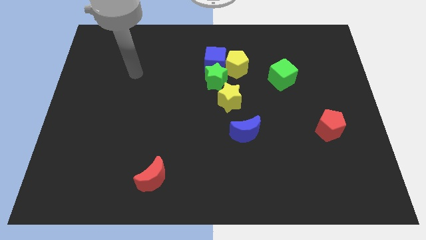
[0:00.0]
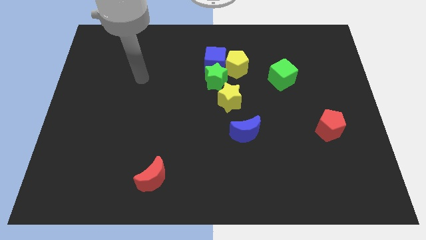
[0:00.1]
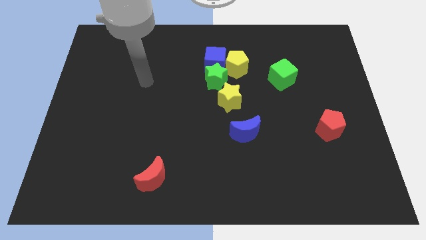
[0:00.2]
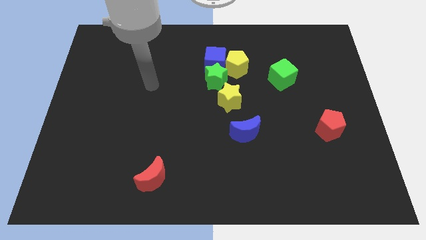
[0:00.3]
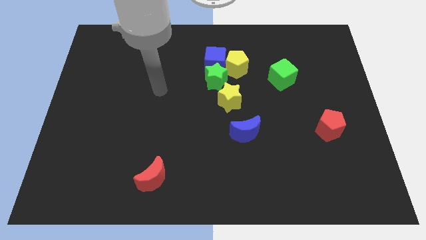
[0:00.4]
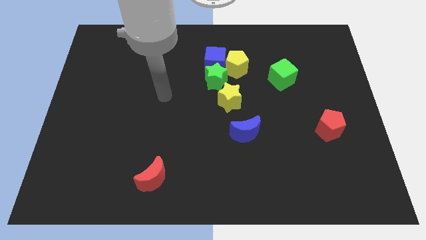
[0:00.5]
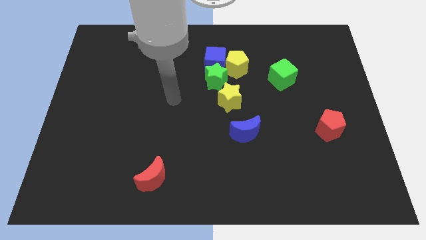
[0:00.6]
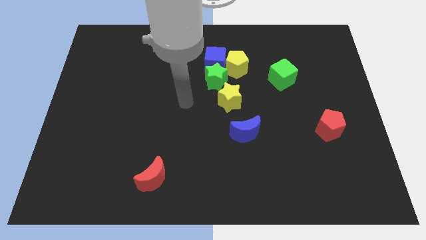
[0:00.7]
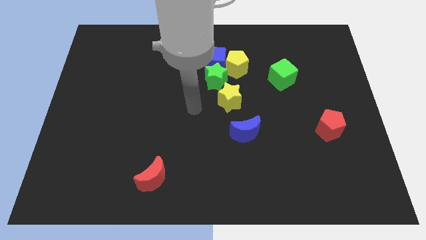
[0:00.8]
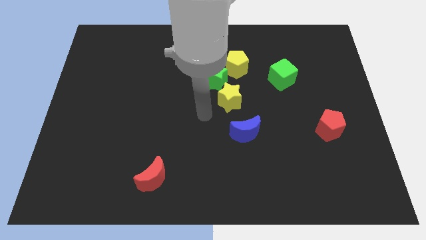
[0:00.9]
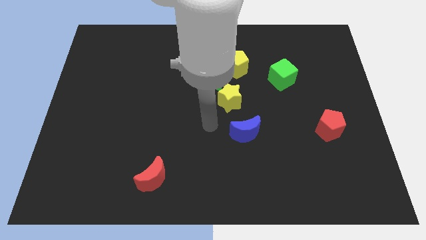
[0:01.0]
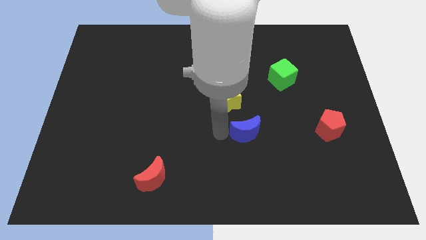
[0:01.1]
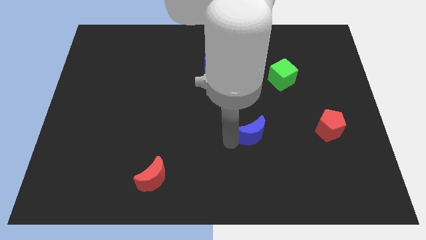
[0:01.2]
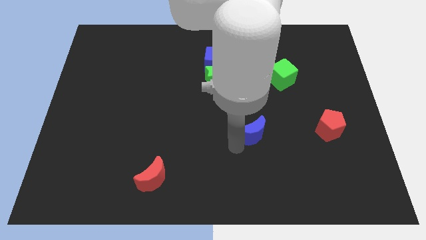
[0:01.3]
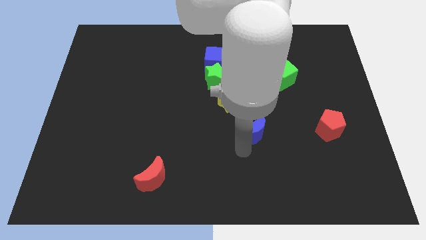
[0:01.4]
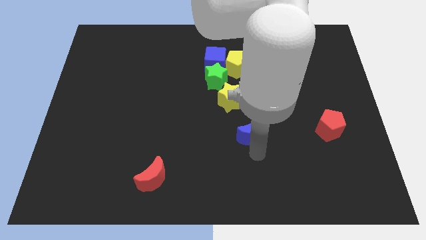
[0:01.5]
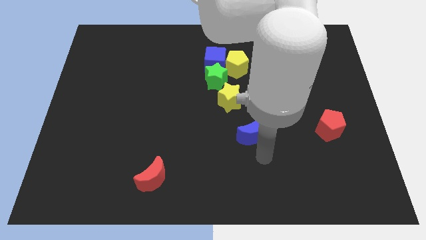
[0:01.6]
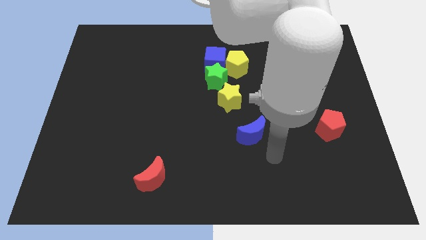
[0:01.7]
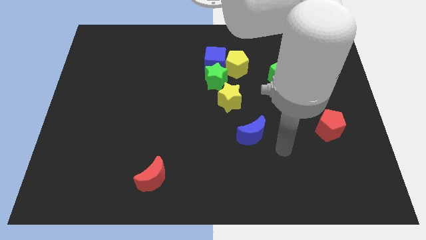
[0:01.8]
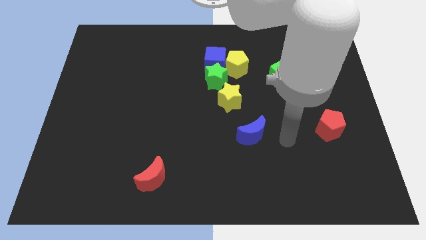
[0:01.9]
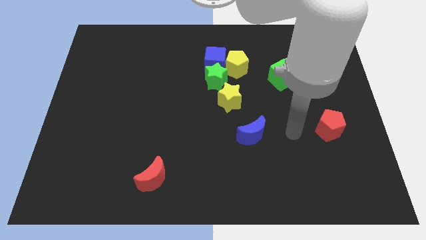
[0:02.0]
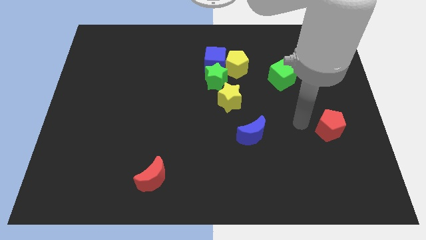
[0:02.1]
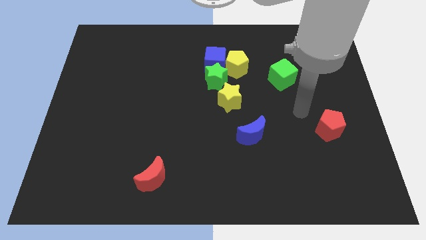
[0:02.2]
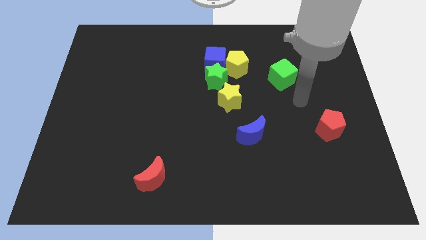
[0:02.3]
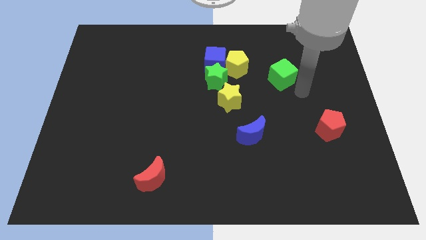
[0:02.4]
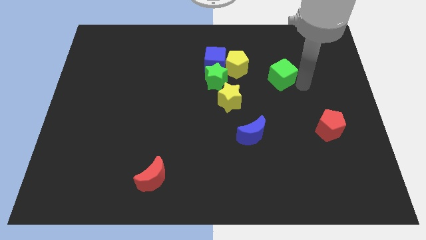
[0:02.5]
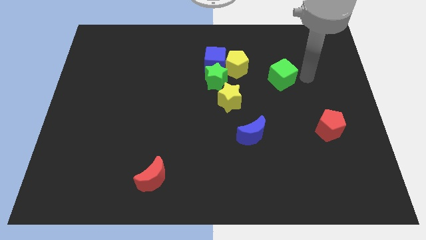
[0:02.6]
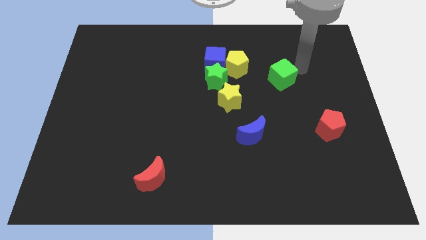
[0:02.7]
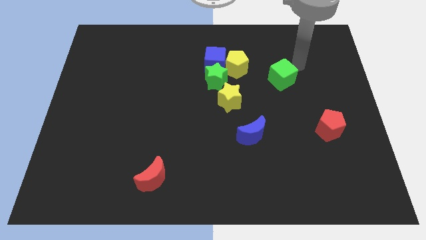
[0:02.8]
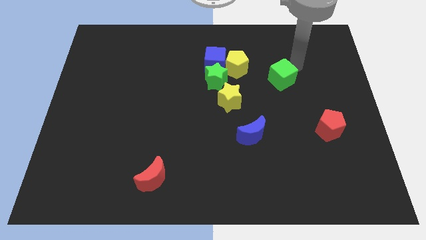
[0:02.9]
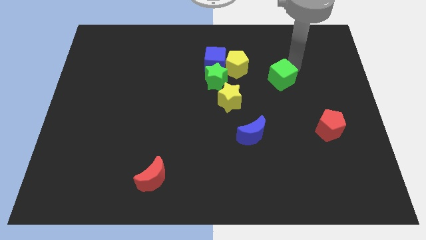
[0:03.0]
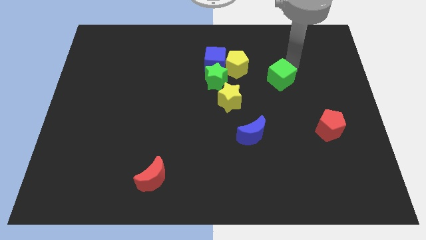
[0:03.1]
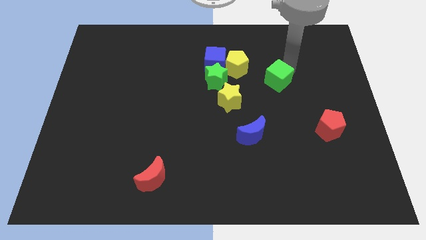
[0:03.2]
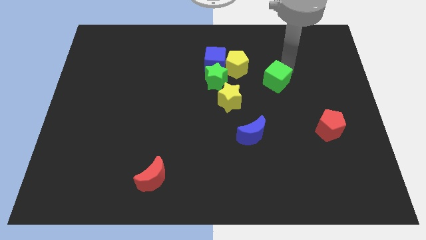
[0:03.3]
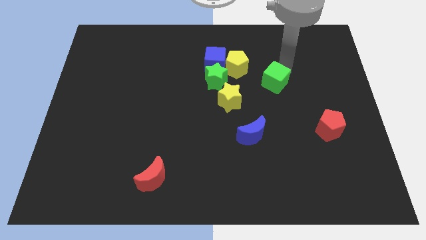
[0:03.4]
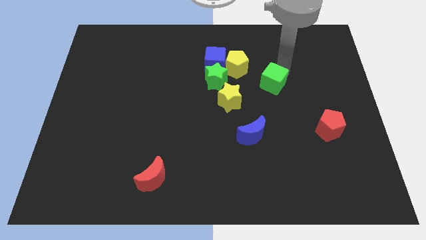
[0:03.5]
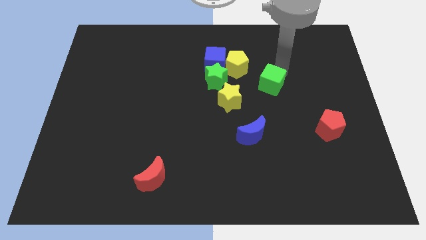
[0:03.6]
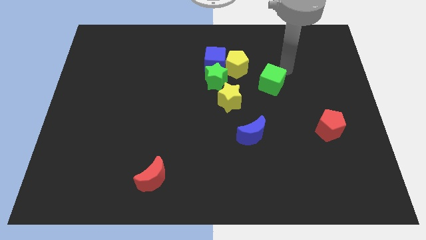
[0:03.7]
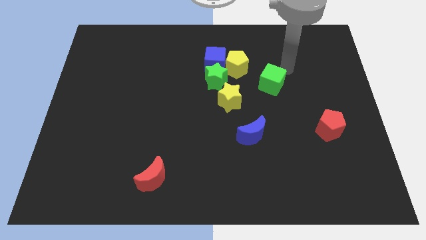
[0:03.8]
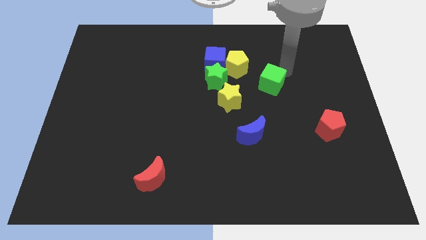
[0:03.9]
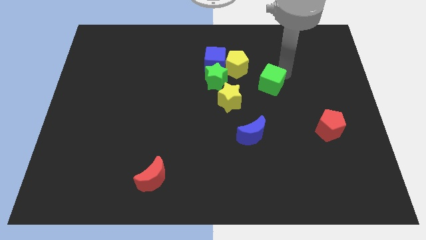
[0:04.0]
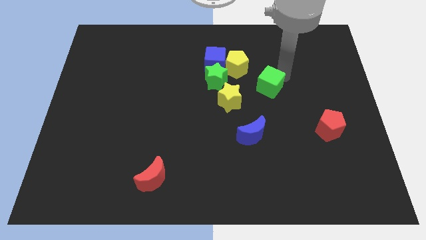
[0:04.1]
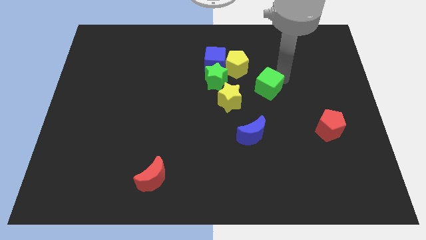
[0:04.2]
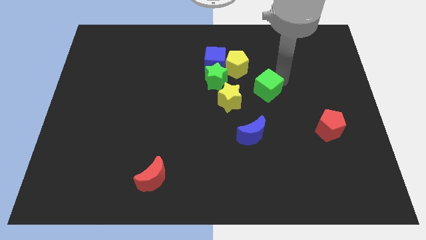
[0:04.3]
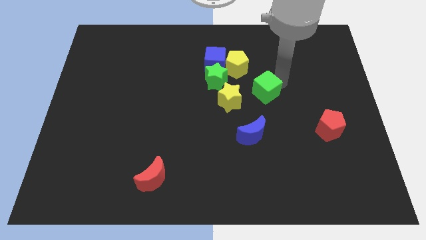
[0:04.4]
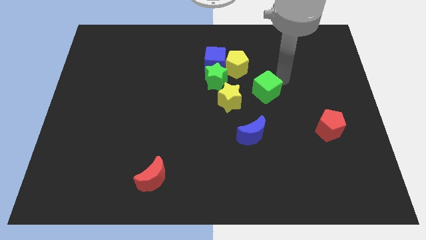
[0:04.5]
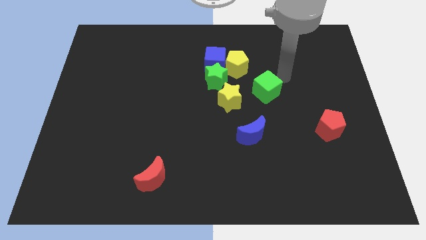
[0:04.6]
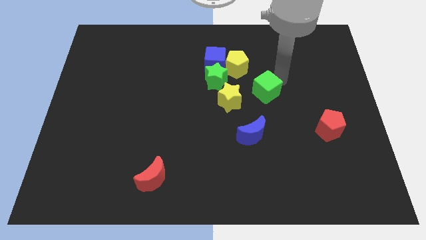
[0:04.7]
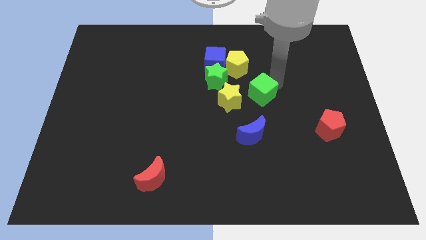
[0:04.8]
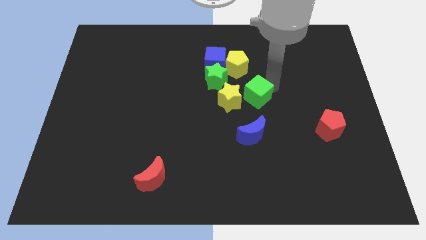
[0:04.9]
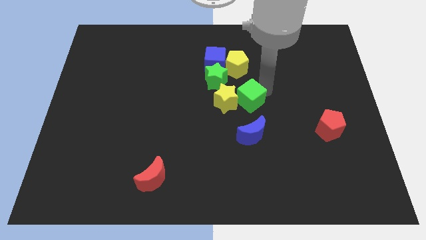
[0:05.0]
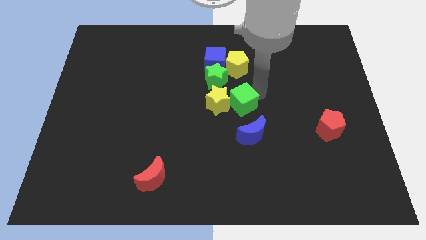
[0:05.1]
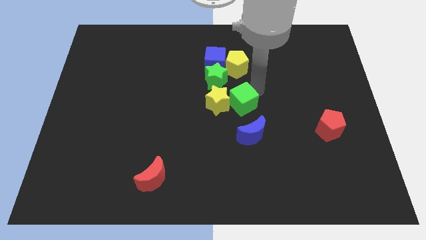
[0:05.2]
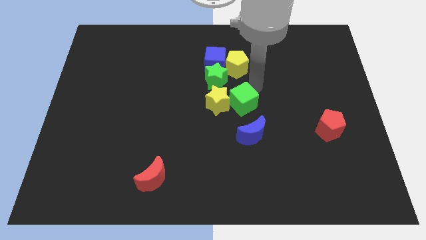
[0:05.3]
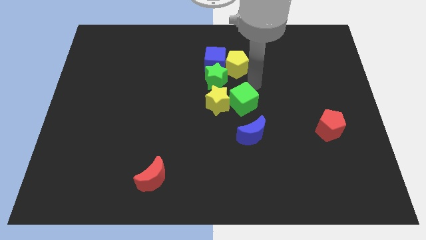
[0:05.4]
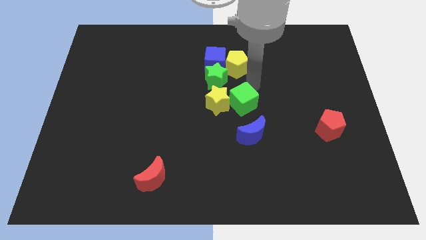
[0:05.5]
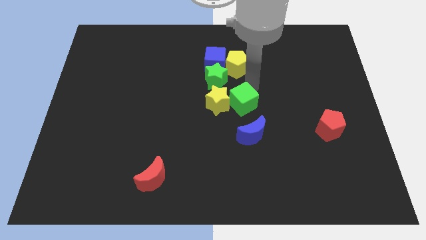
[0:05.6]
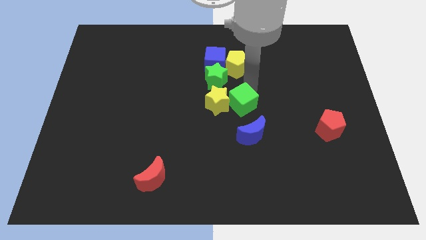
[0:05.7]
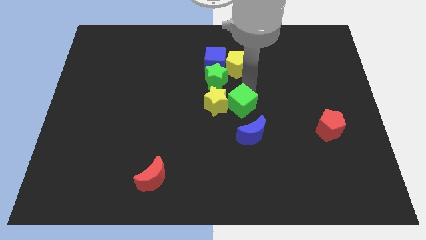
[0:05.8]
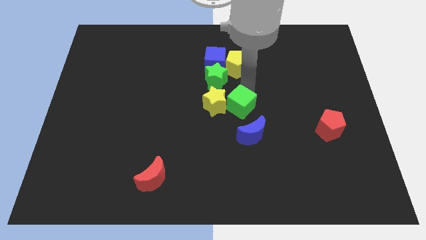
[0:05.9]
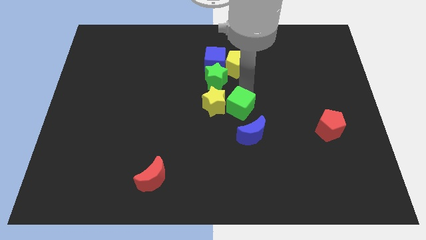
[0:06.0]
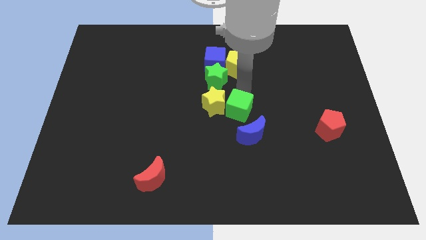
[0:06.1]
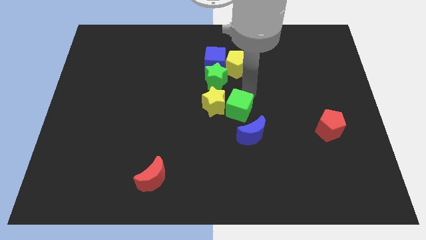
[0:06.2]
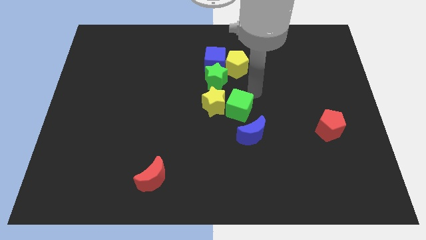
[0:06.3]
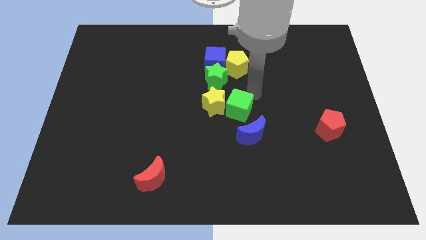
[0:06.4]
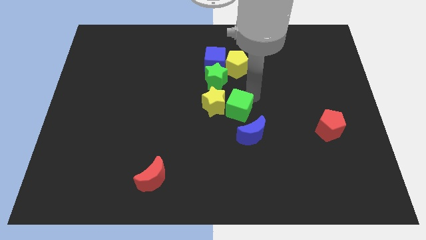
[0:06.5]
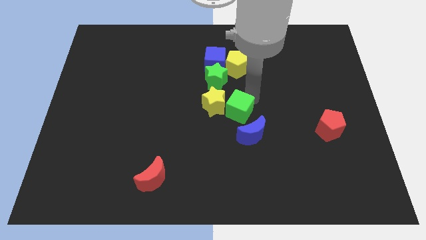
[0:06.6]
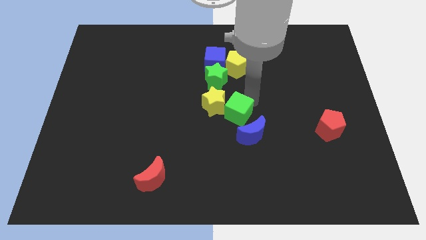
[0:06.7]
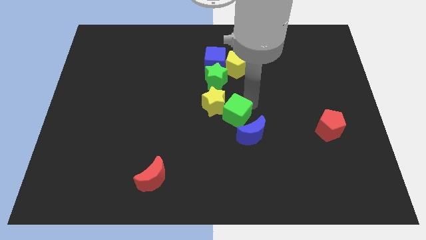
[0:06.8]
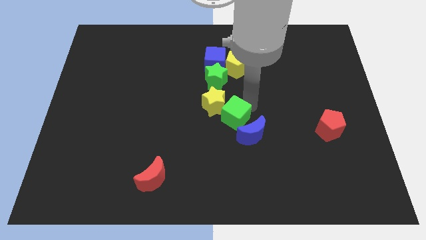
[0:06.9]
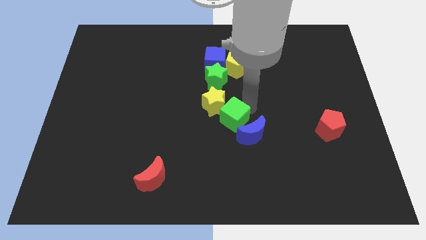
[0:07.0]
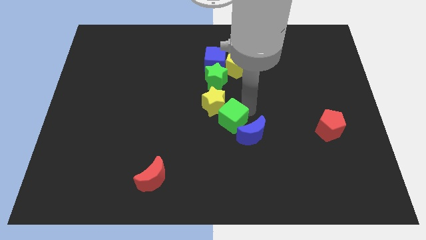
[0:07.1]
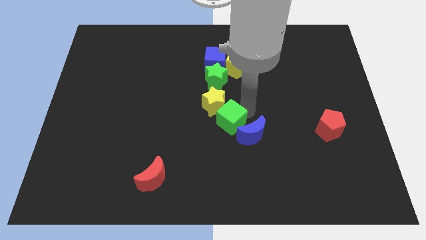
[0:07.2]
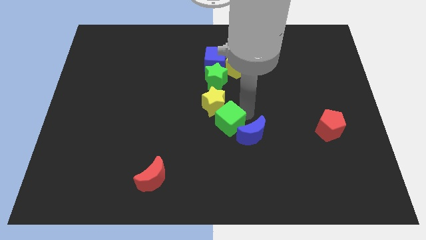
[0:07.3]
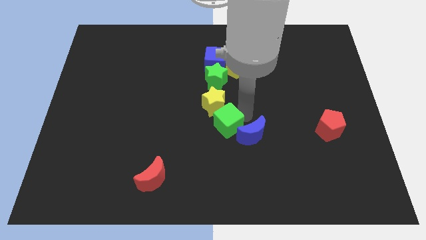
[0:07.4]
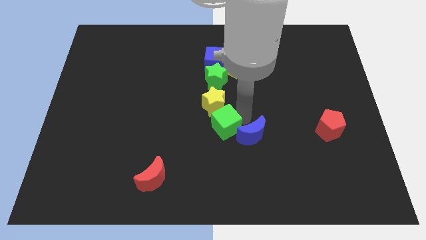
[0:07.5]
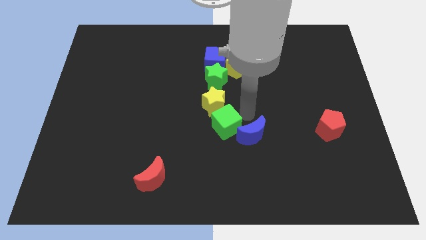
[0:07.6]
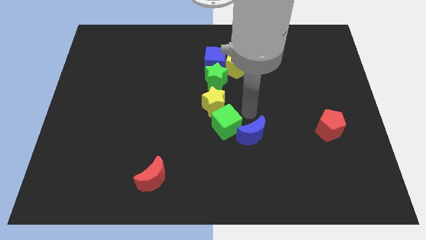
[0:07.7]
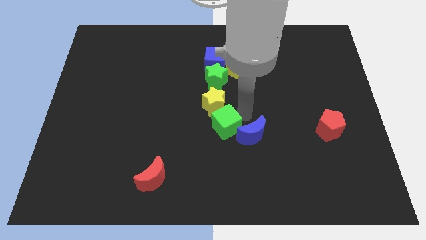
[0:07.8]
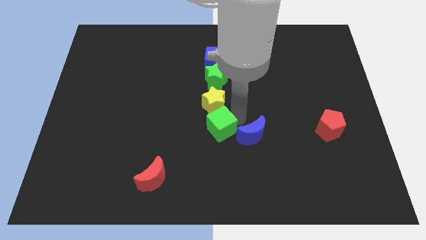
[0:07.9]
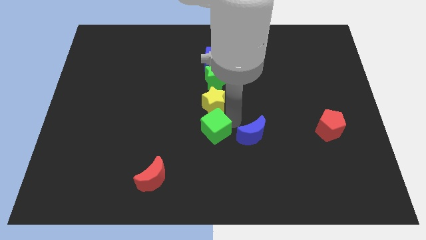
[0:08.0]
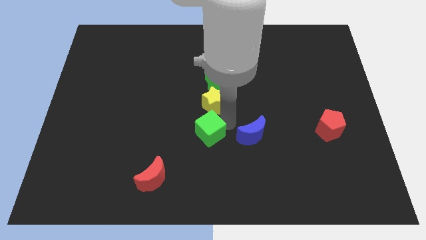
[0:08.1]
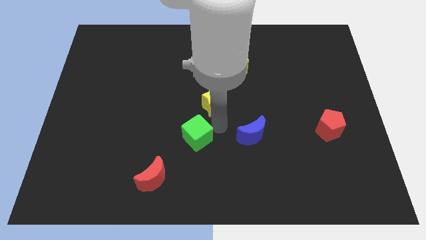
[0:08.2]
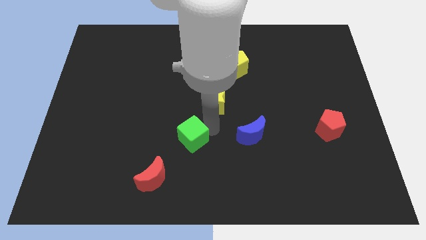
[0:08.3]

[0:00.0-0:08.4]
push the green cube to the top right side of the red moon
